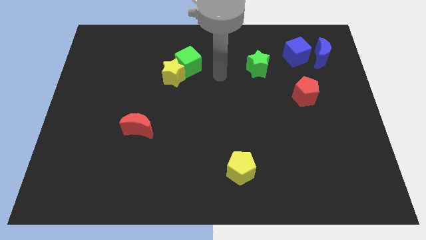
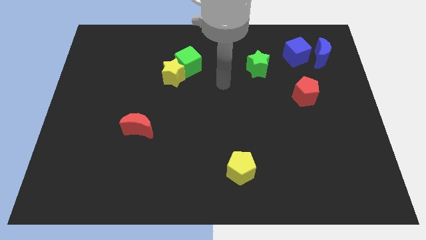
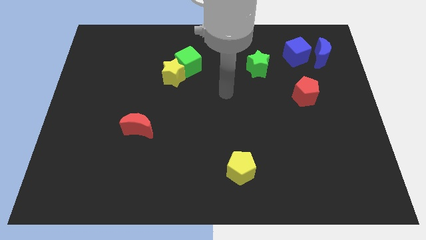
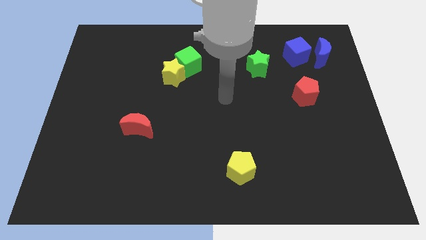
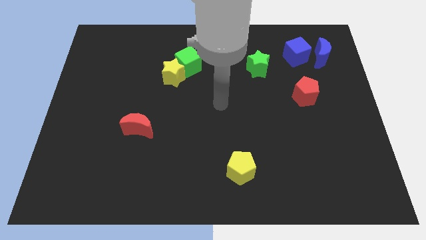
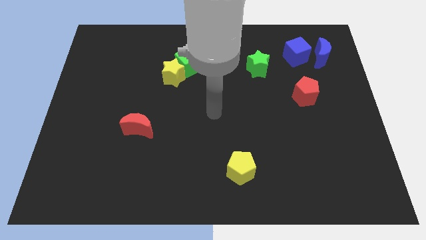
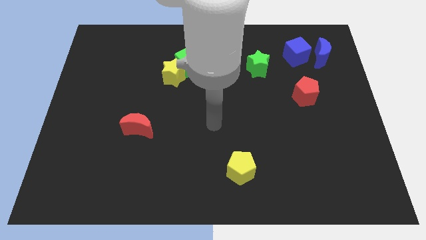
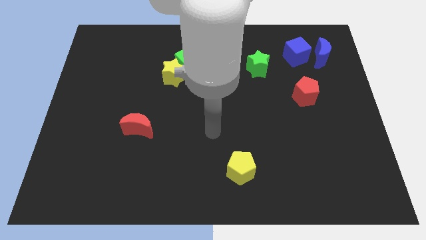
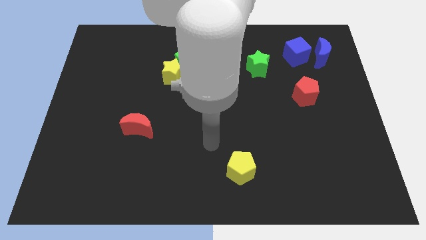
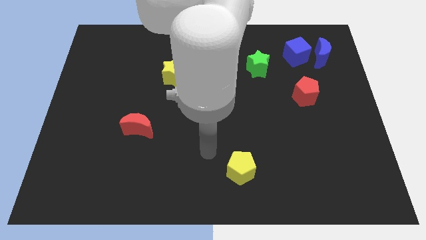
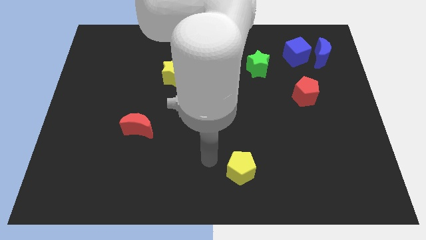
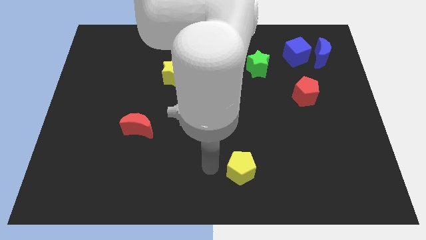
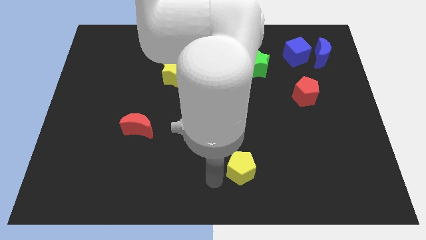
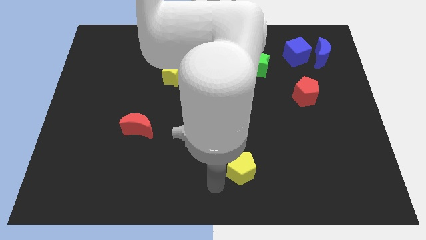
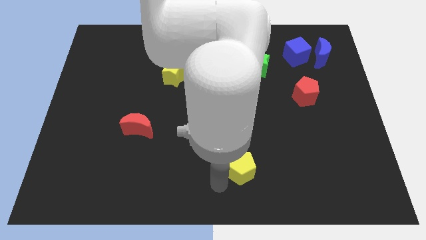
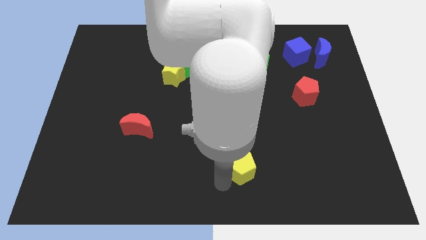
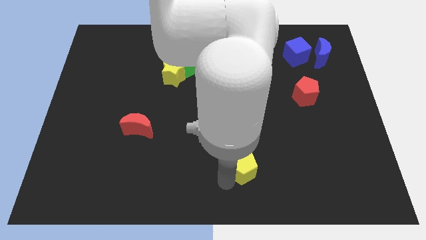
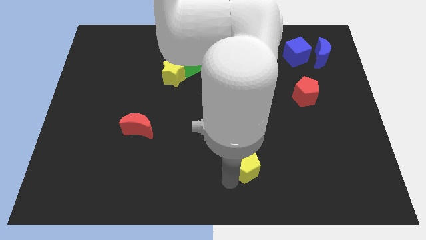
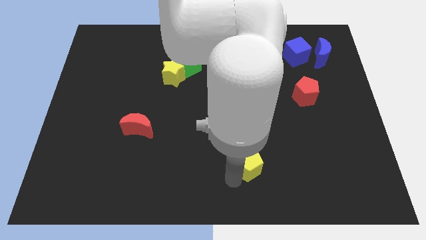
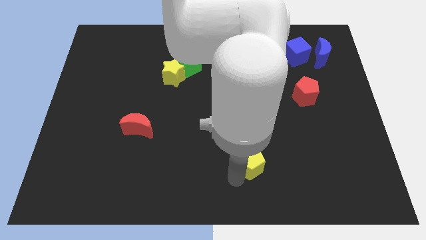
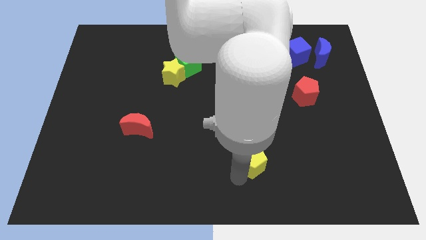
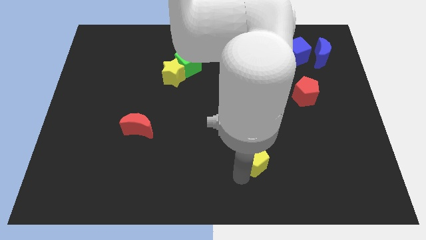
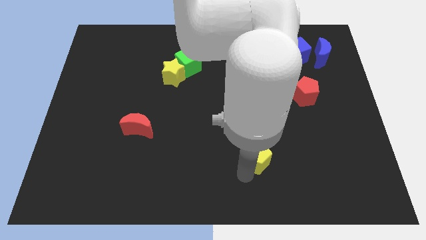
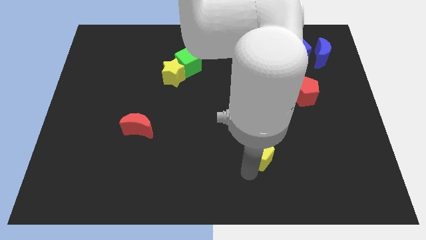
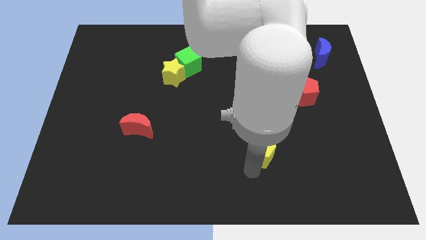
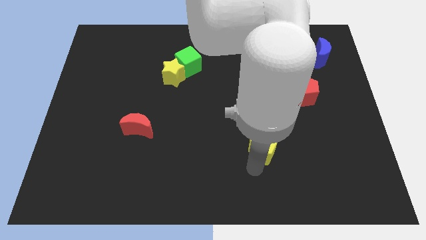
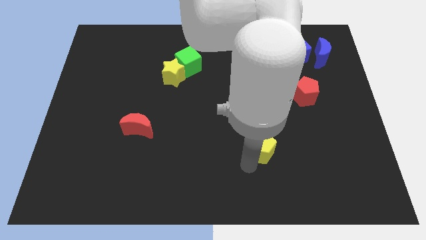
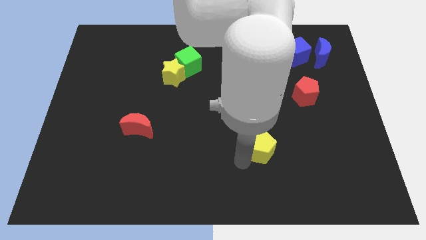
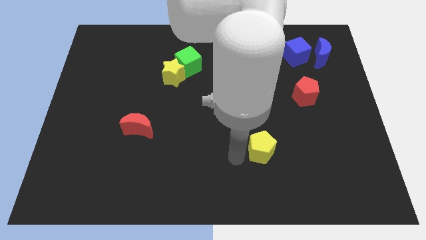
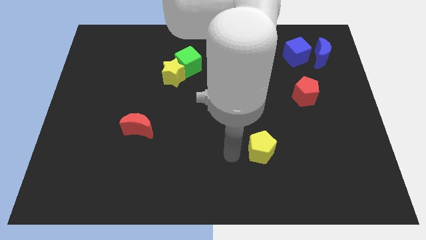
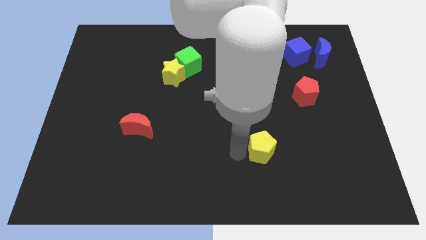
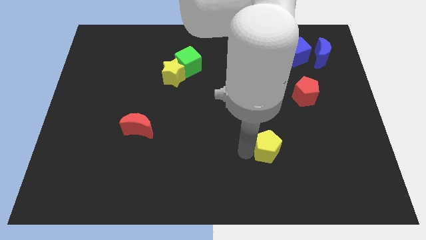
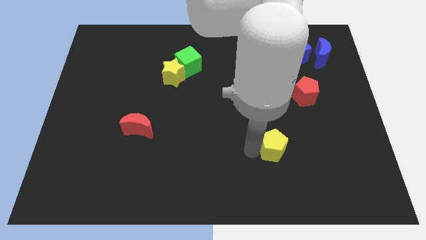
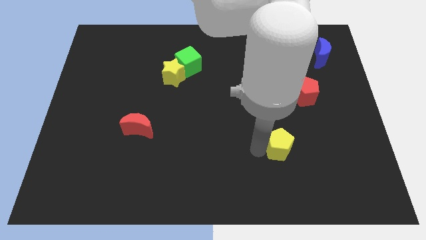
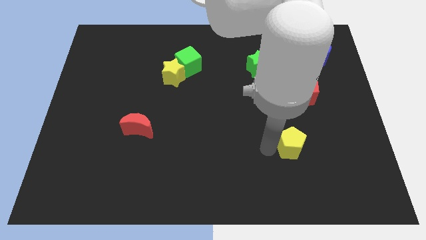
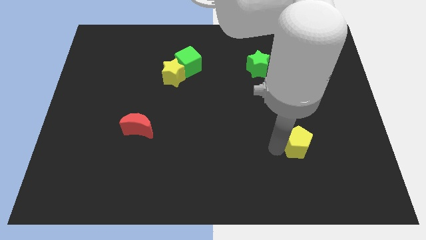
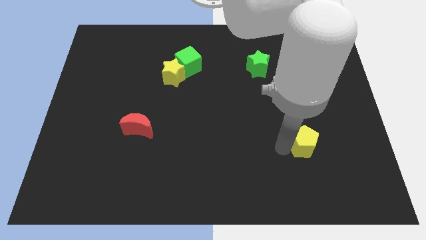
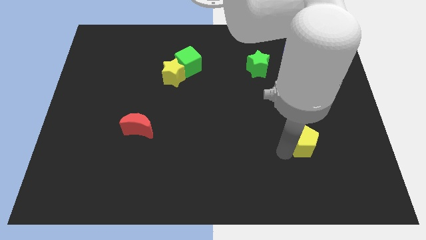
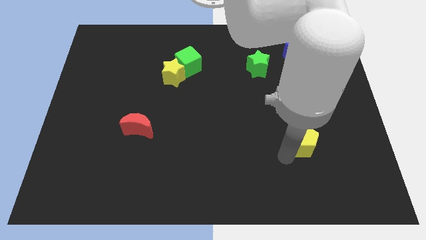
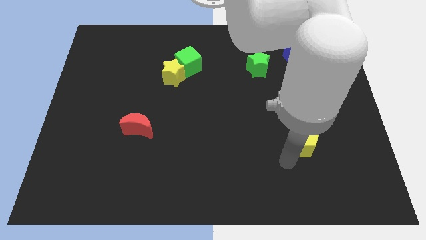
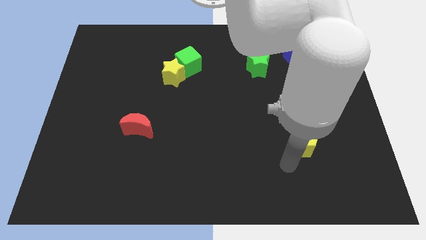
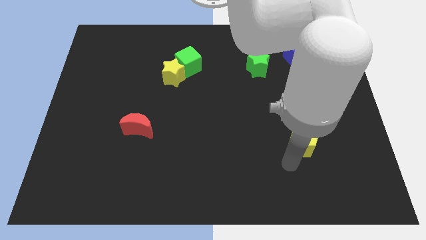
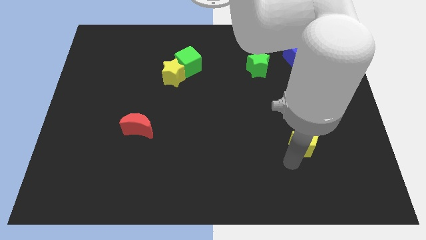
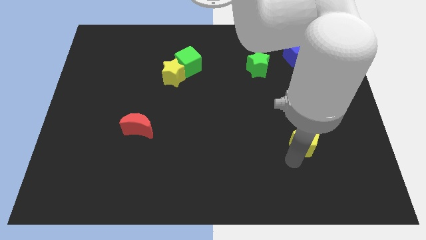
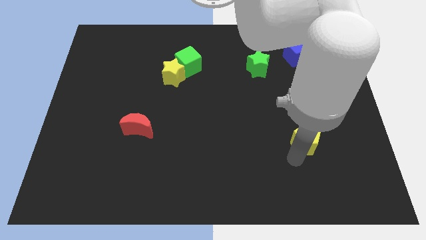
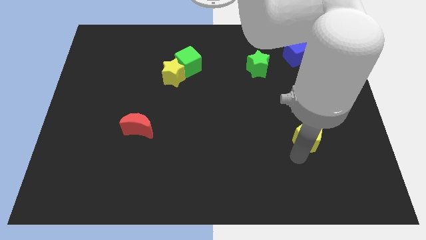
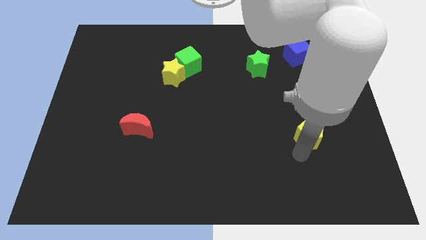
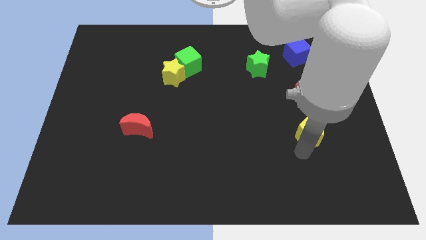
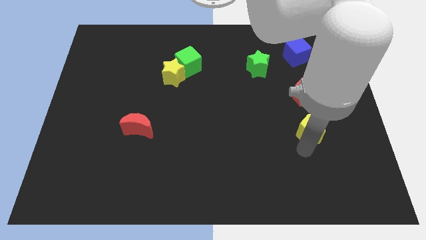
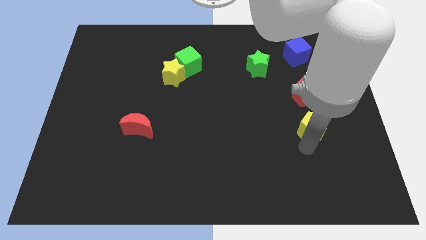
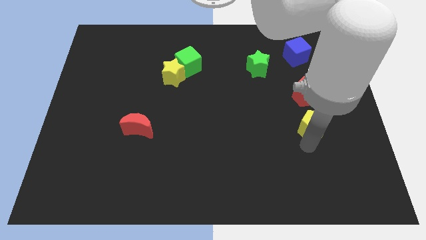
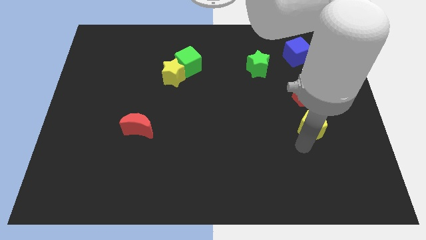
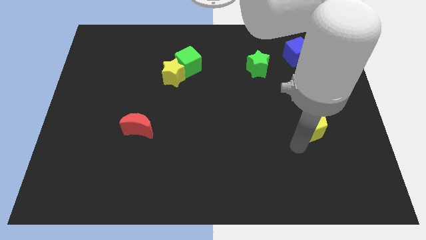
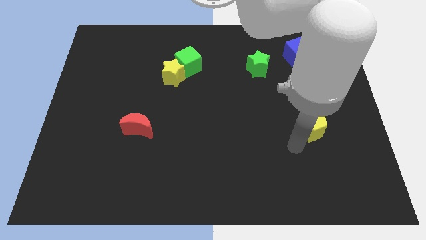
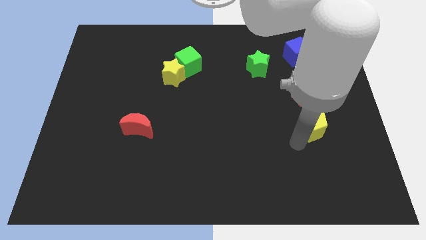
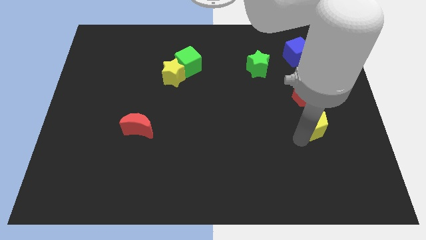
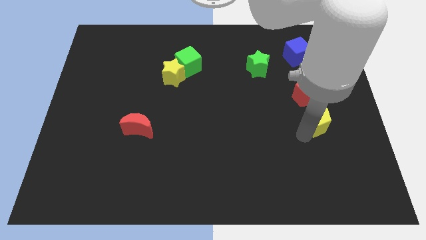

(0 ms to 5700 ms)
slide the yellow pentagon up and to the right

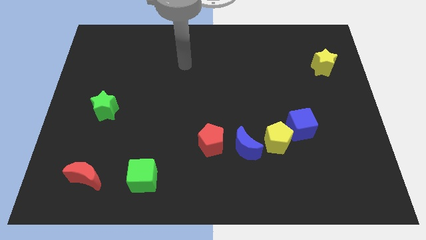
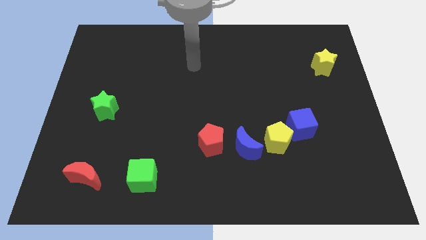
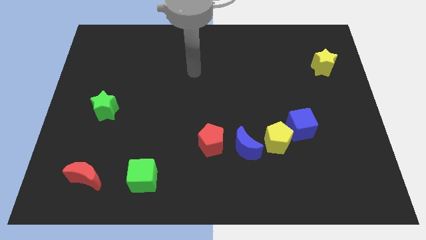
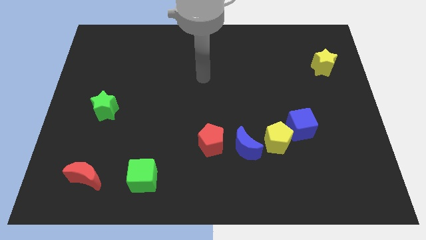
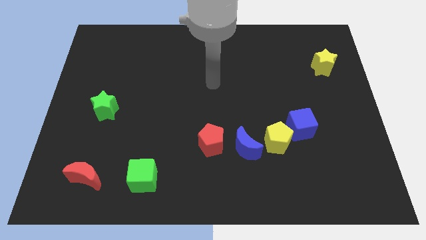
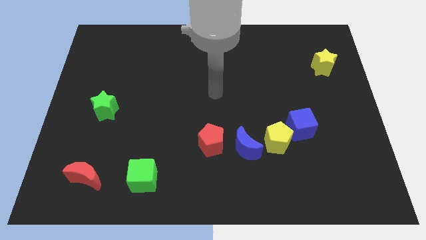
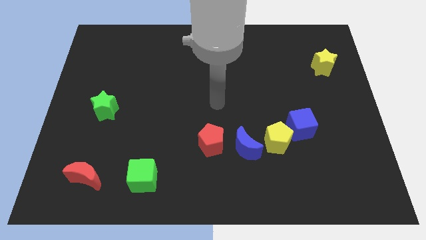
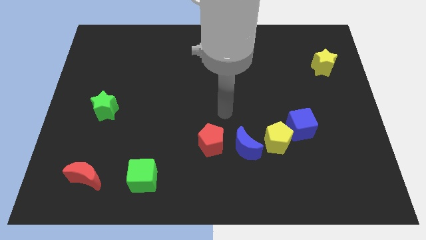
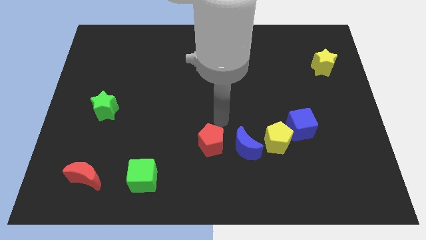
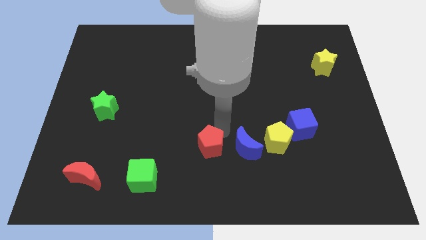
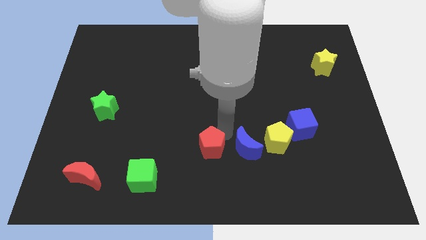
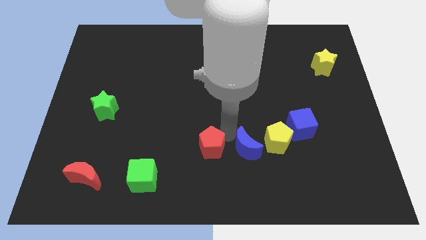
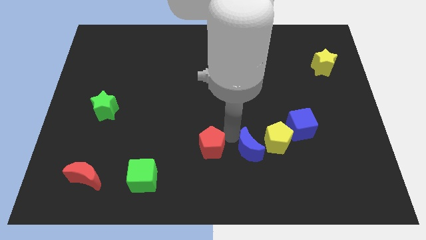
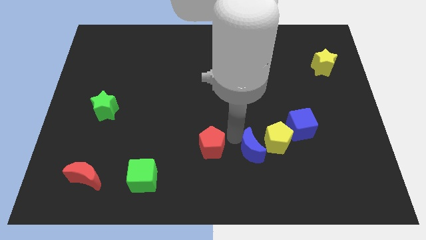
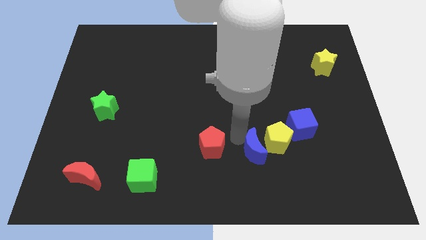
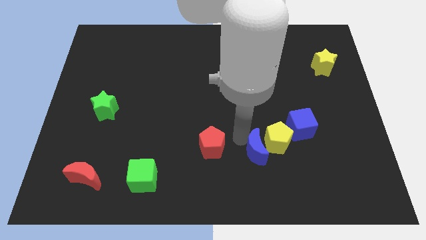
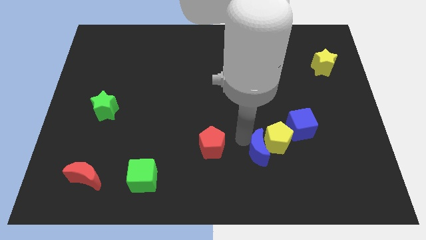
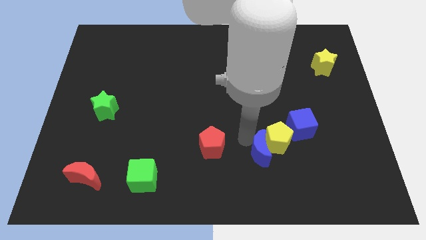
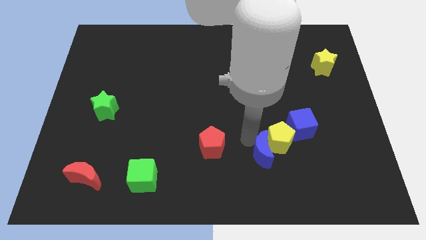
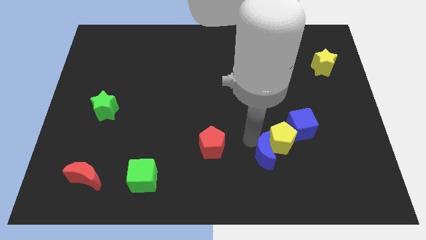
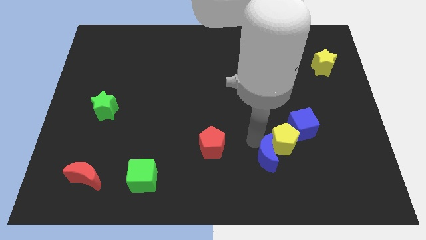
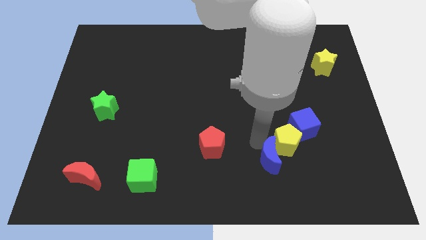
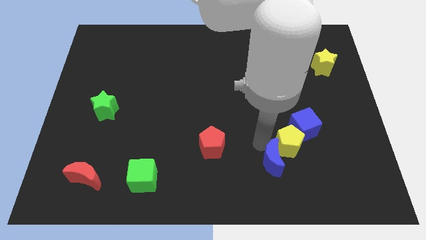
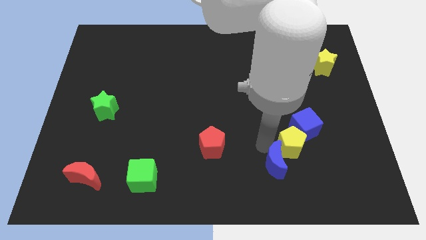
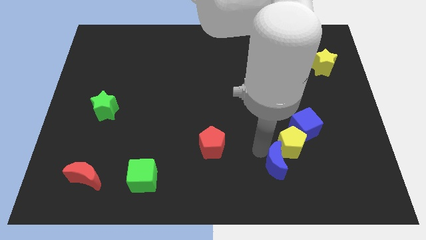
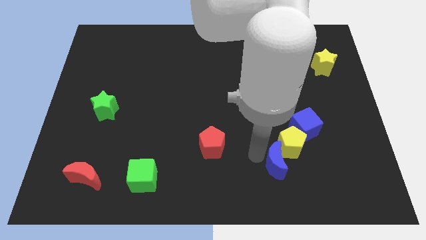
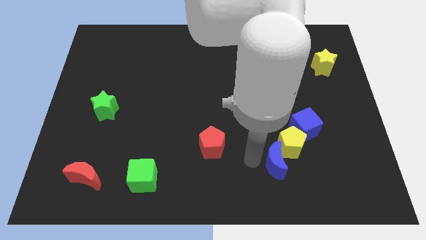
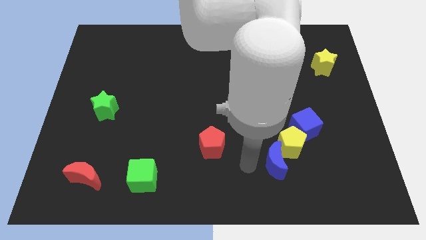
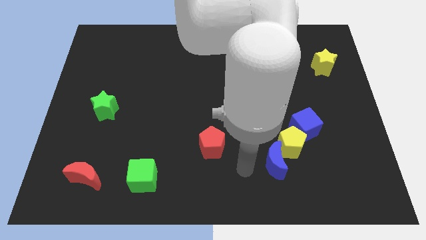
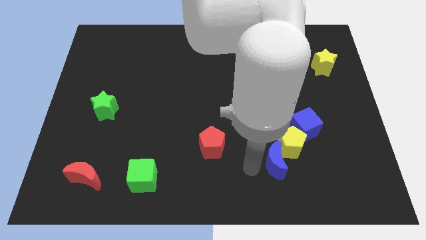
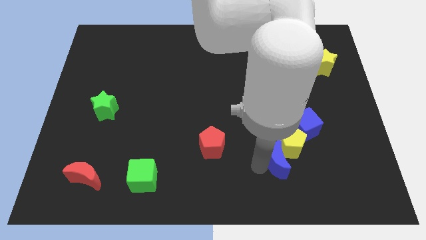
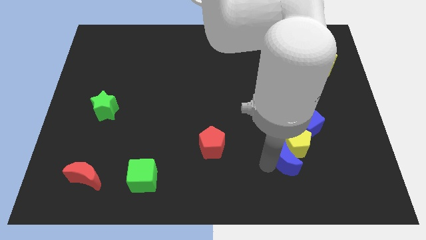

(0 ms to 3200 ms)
slightly move the blue moon to the right
